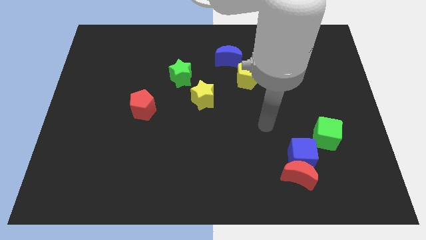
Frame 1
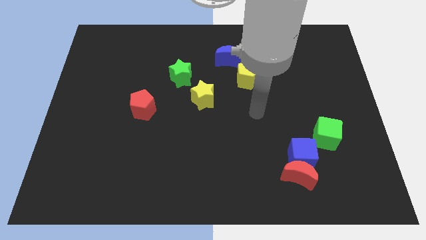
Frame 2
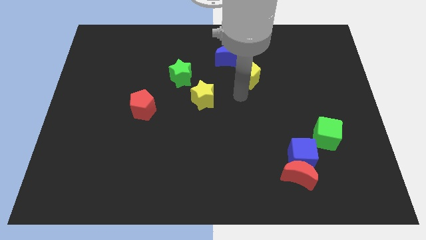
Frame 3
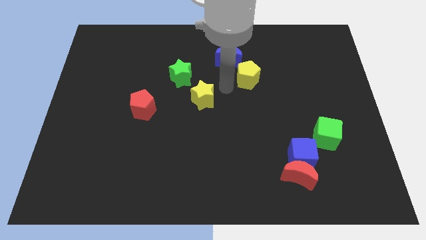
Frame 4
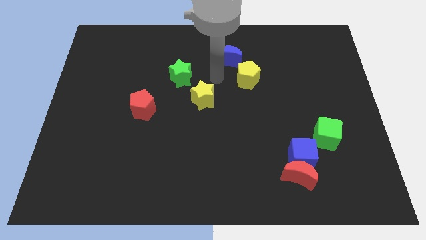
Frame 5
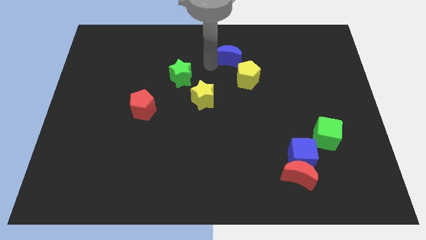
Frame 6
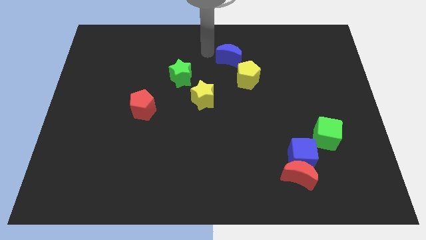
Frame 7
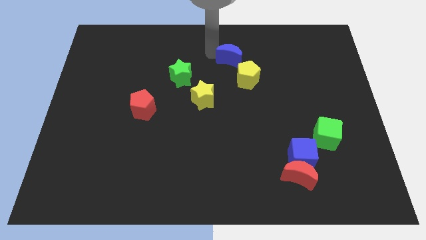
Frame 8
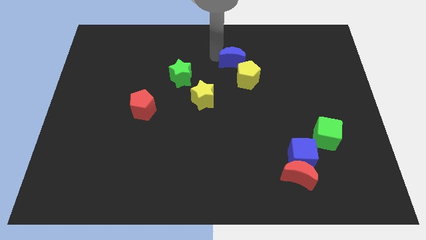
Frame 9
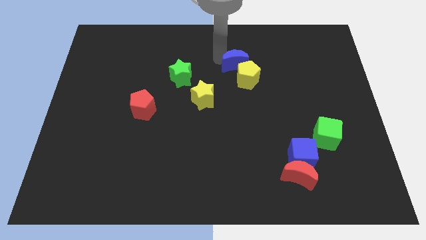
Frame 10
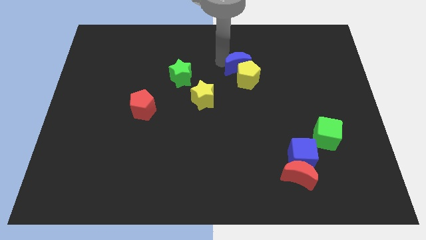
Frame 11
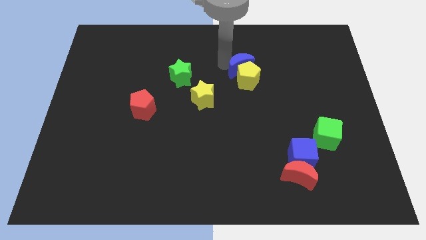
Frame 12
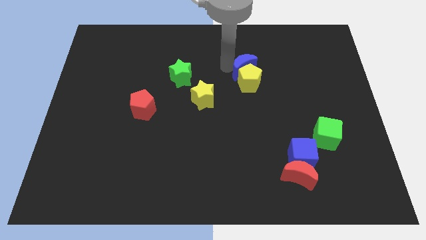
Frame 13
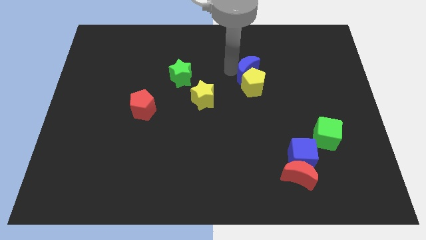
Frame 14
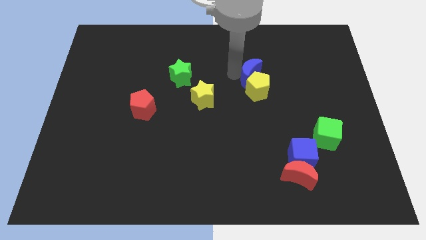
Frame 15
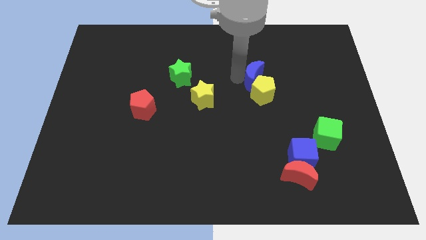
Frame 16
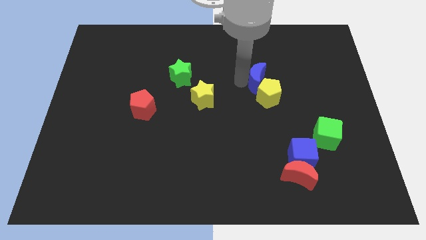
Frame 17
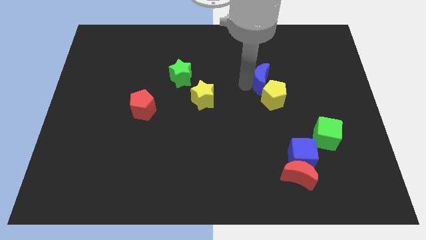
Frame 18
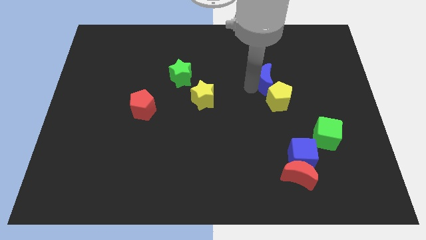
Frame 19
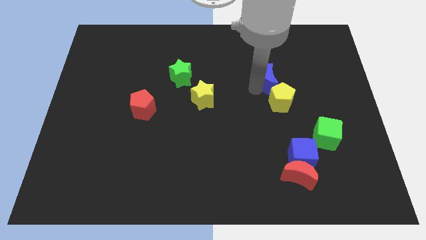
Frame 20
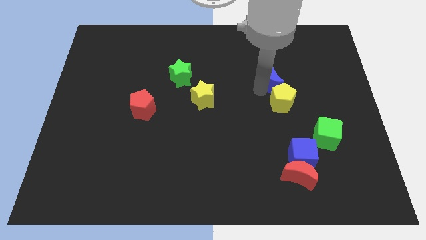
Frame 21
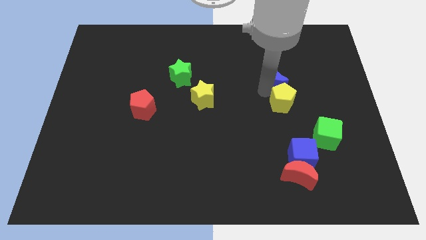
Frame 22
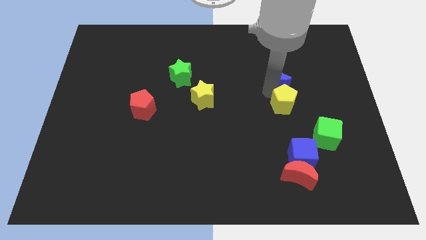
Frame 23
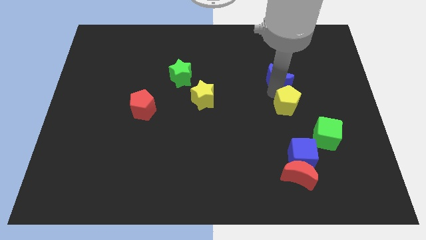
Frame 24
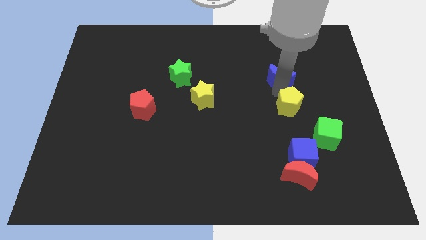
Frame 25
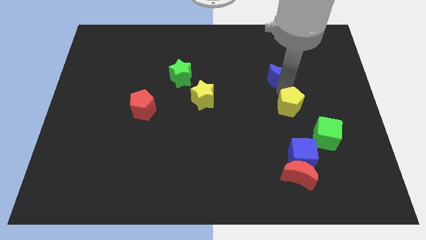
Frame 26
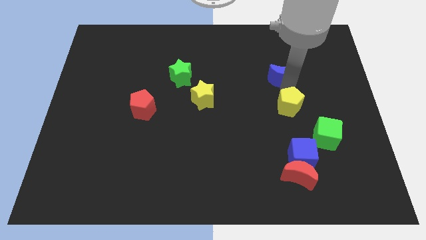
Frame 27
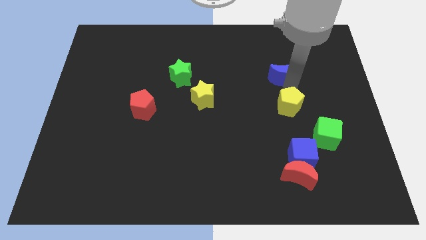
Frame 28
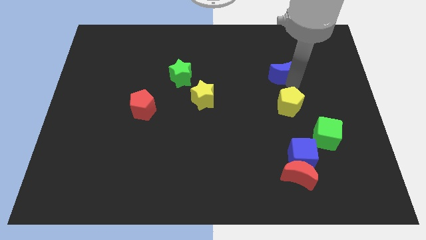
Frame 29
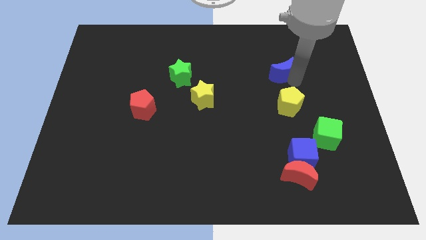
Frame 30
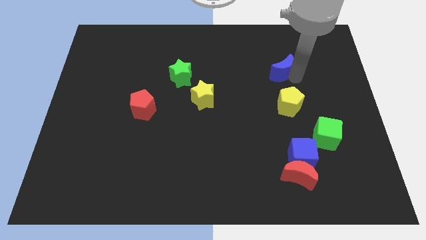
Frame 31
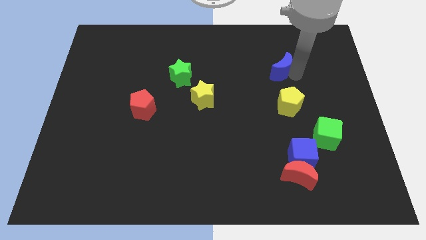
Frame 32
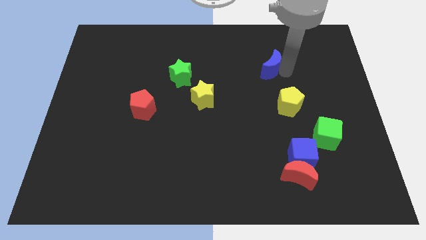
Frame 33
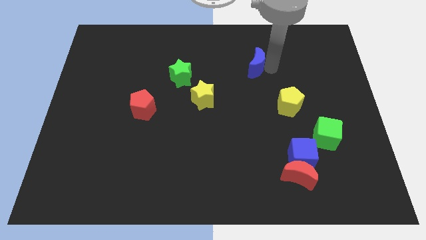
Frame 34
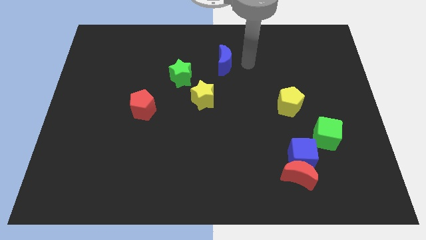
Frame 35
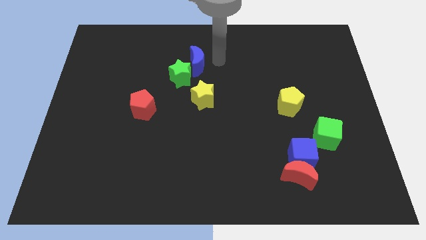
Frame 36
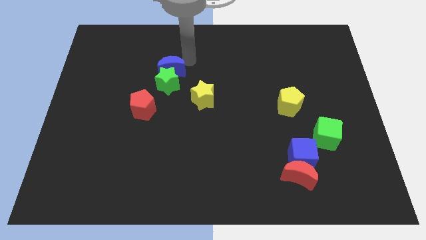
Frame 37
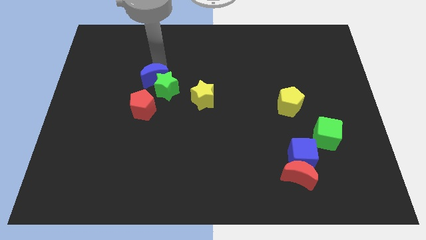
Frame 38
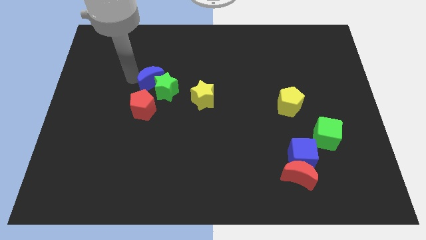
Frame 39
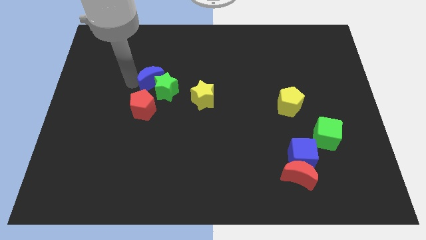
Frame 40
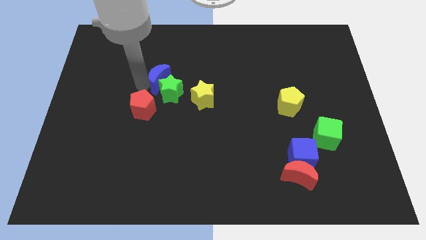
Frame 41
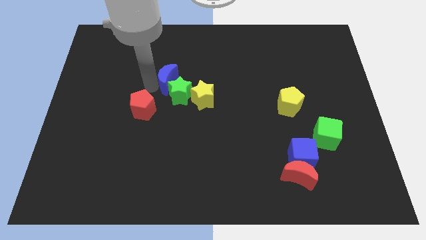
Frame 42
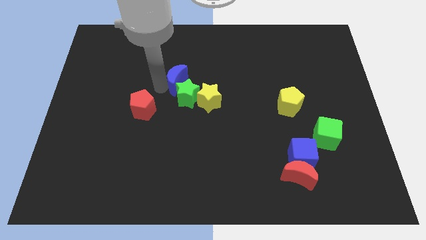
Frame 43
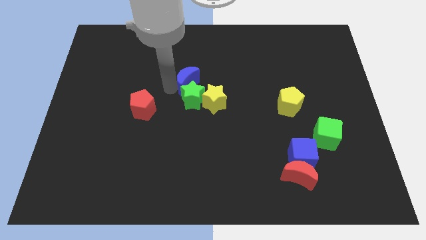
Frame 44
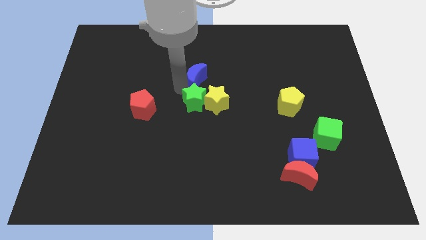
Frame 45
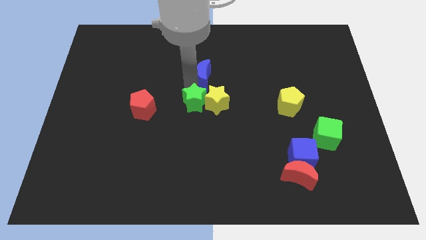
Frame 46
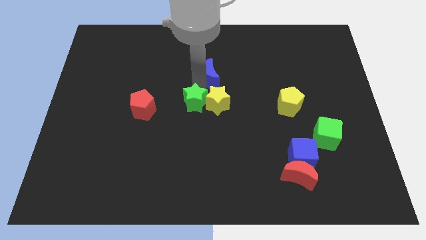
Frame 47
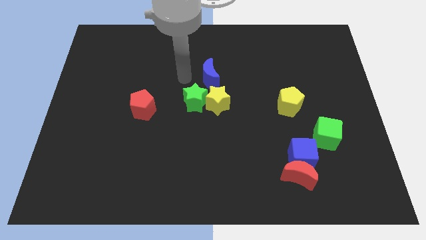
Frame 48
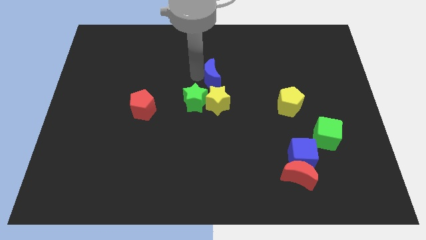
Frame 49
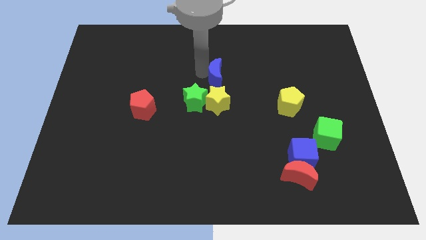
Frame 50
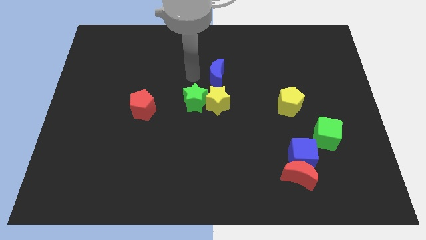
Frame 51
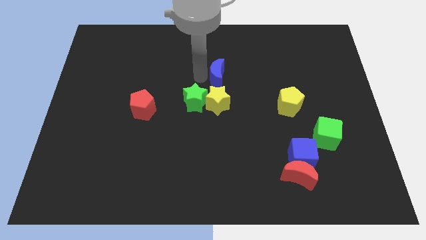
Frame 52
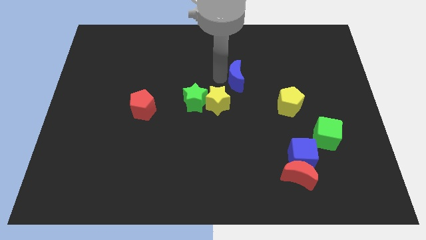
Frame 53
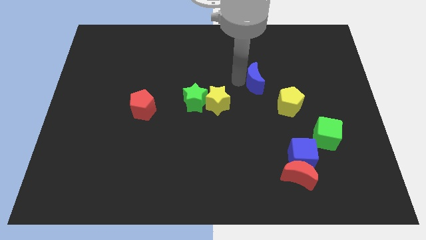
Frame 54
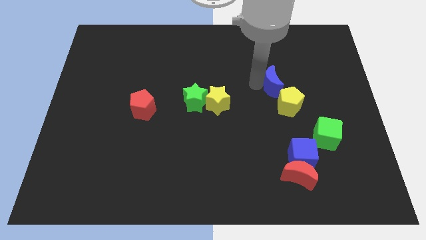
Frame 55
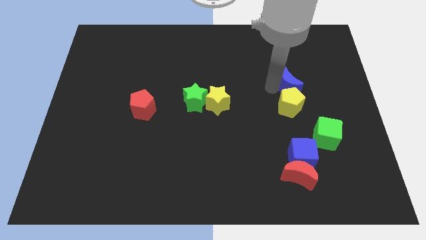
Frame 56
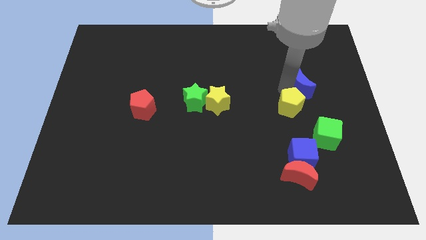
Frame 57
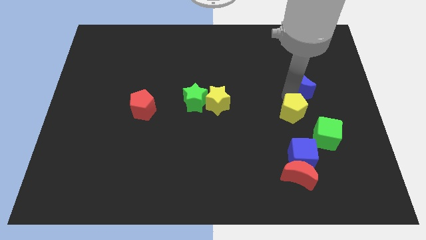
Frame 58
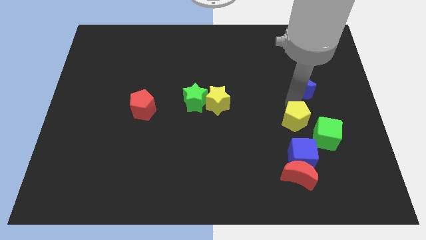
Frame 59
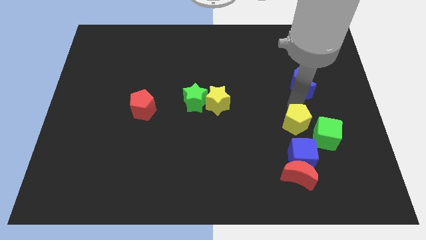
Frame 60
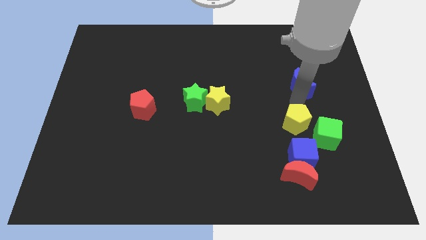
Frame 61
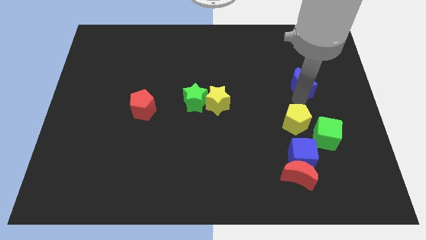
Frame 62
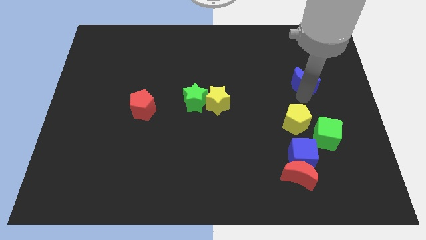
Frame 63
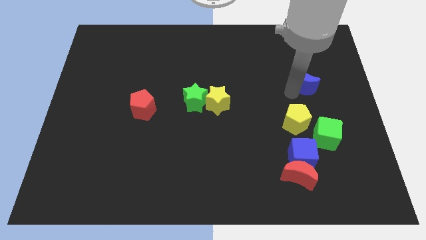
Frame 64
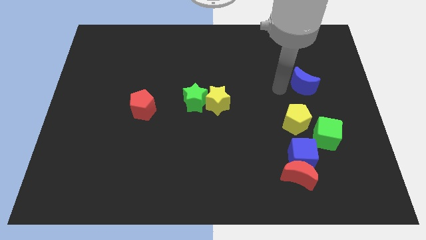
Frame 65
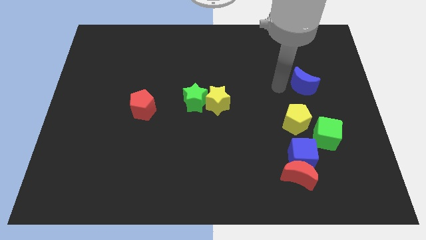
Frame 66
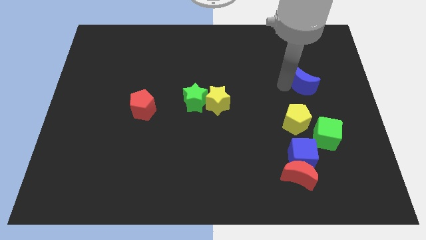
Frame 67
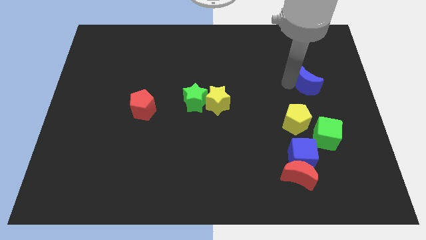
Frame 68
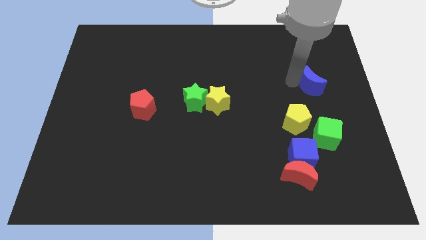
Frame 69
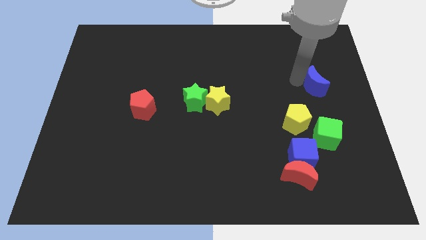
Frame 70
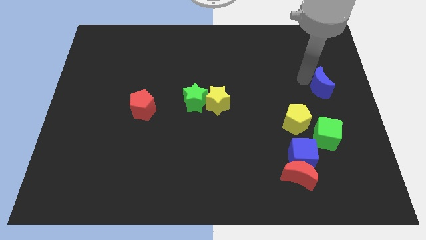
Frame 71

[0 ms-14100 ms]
push the blue moon to the right side of the board

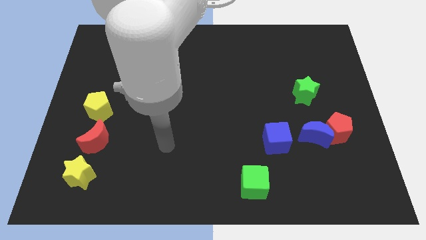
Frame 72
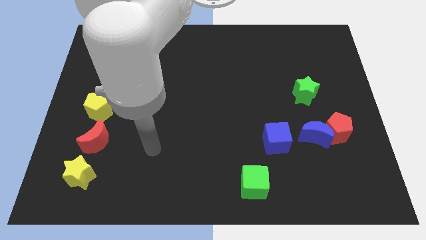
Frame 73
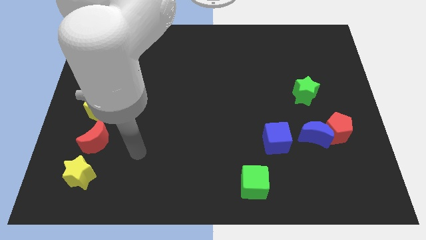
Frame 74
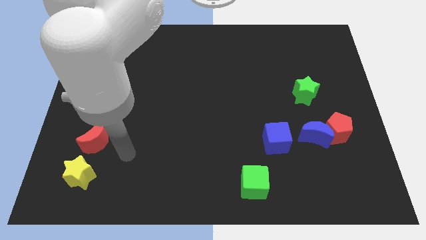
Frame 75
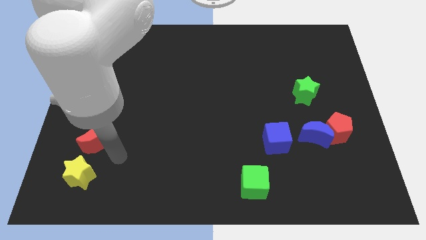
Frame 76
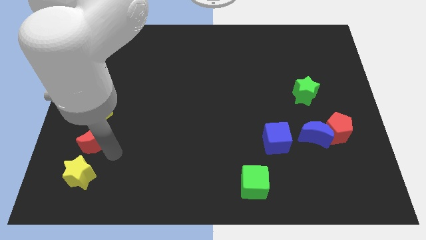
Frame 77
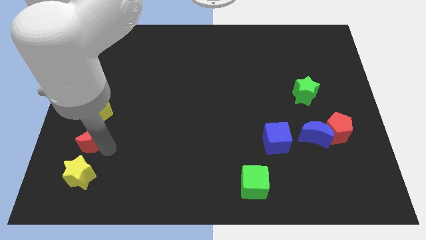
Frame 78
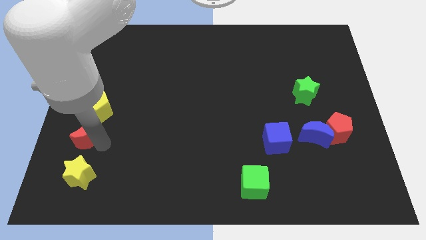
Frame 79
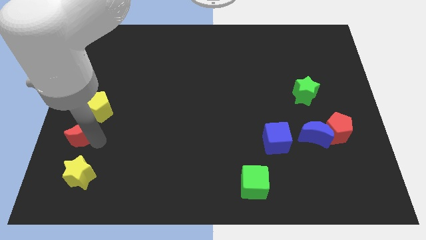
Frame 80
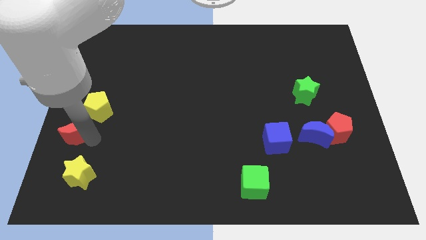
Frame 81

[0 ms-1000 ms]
slide the red moon to the left side
